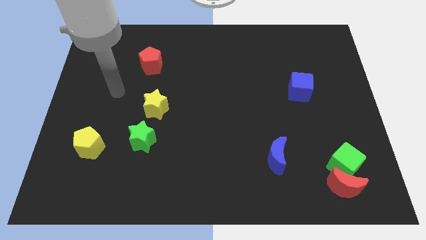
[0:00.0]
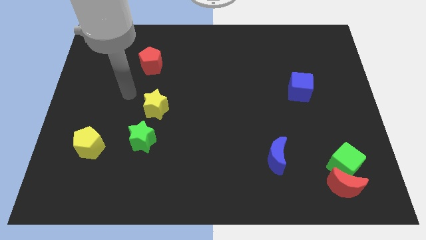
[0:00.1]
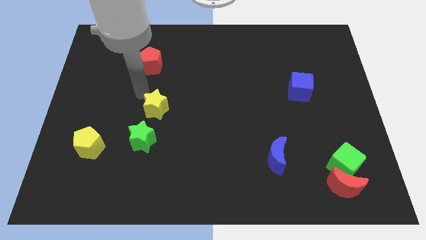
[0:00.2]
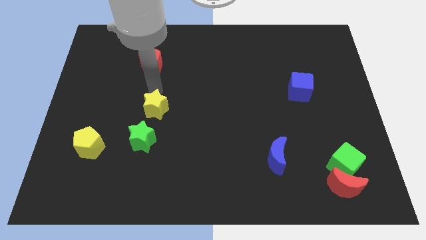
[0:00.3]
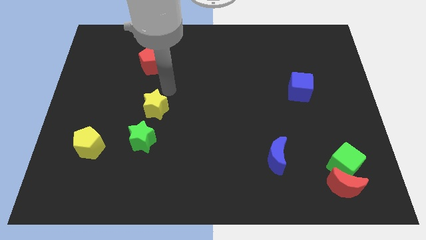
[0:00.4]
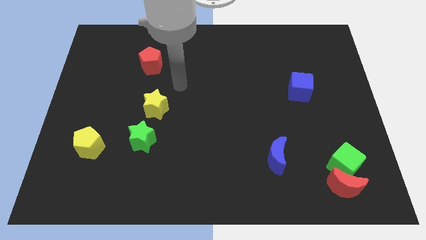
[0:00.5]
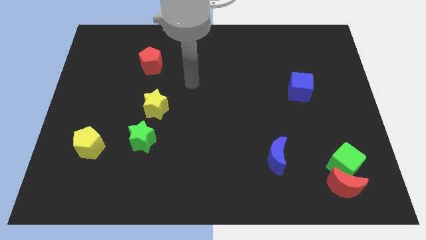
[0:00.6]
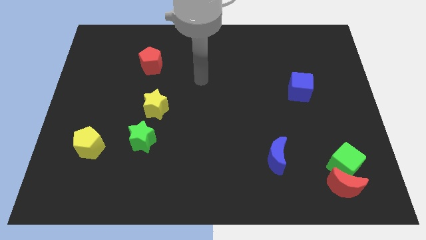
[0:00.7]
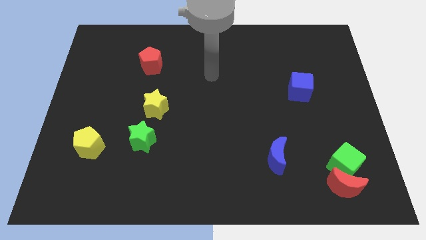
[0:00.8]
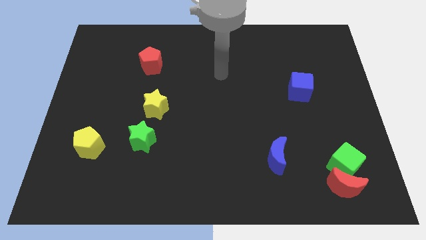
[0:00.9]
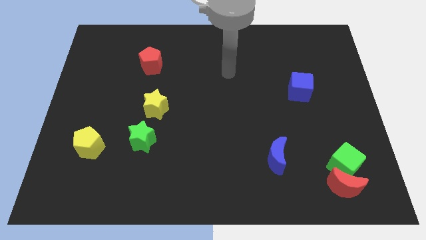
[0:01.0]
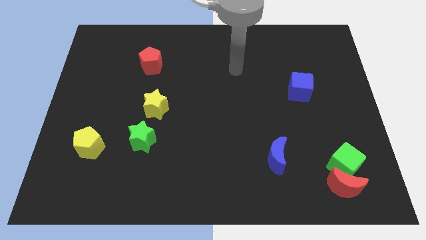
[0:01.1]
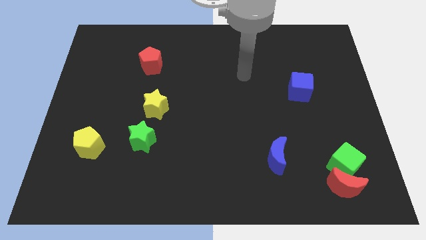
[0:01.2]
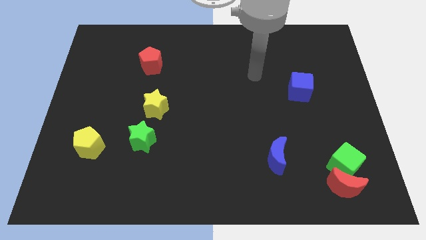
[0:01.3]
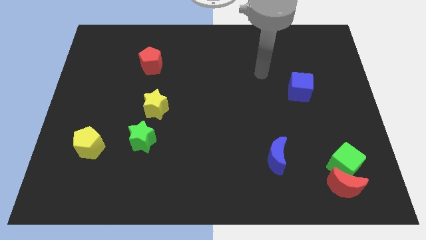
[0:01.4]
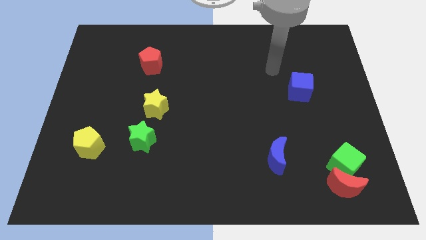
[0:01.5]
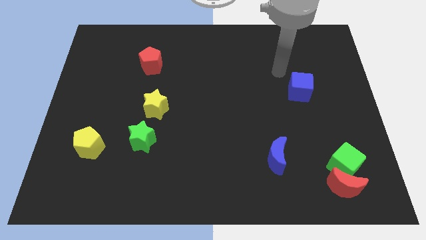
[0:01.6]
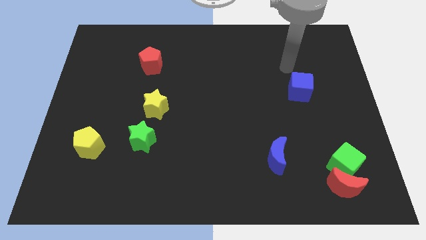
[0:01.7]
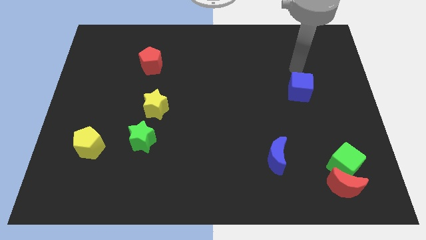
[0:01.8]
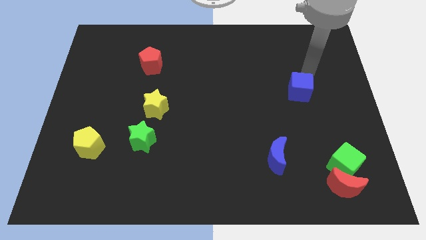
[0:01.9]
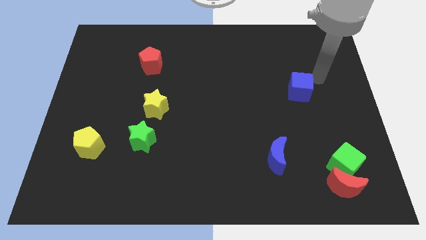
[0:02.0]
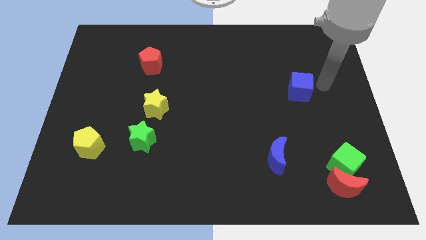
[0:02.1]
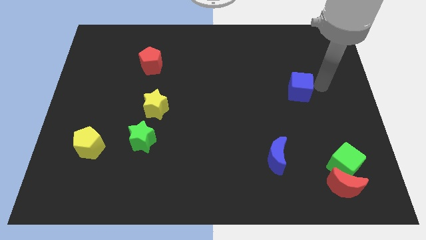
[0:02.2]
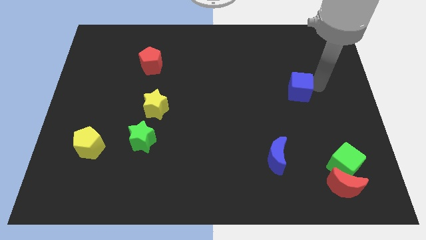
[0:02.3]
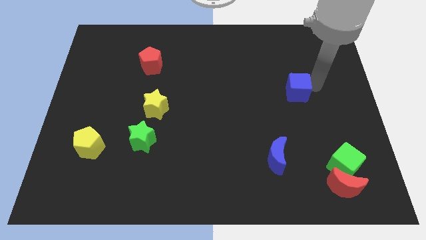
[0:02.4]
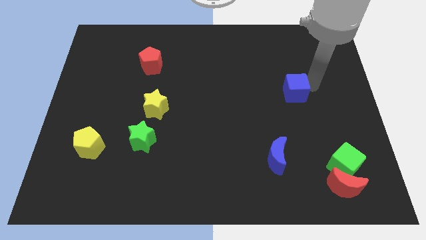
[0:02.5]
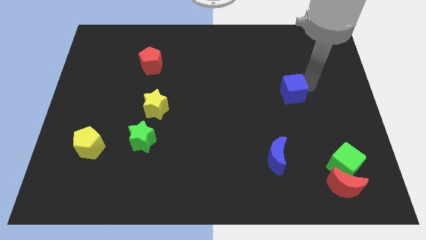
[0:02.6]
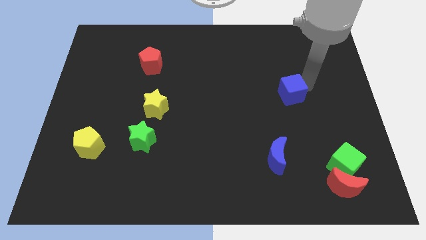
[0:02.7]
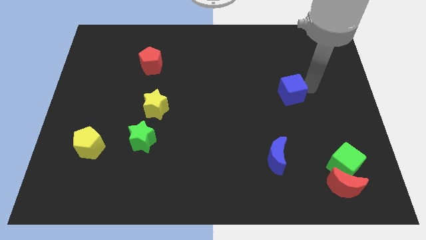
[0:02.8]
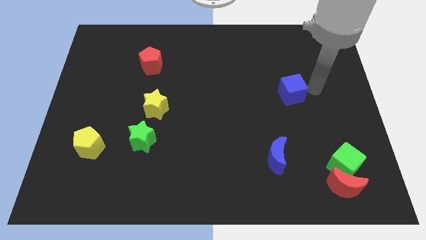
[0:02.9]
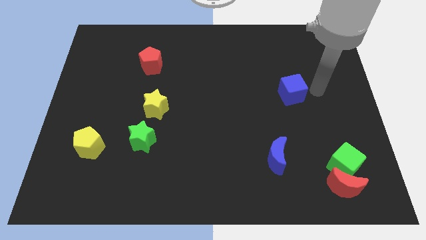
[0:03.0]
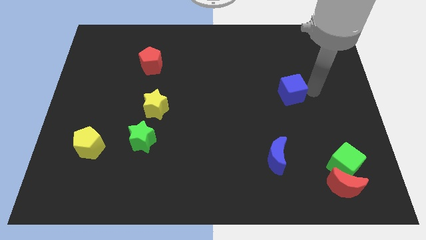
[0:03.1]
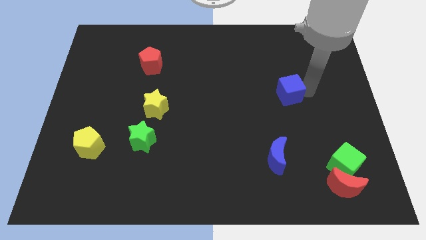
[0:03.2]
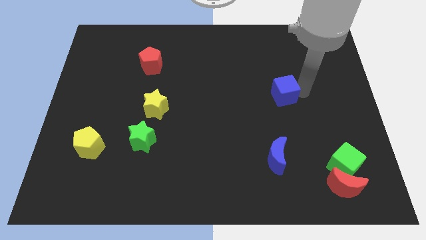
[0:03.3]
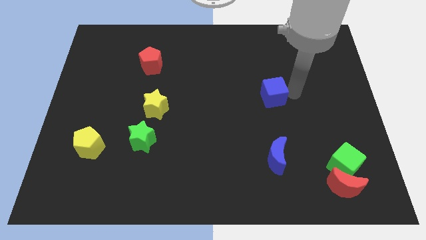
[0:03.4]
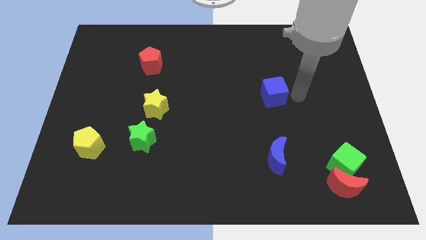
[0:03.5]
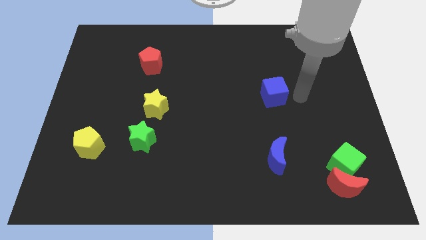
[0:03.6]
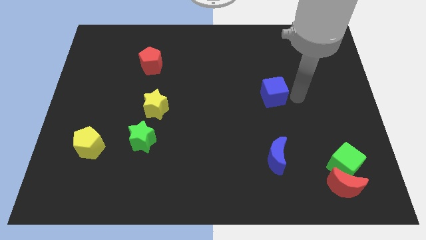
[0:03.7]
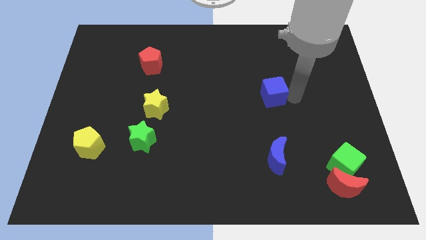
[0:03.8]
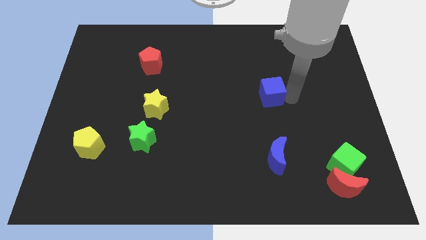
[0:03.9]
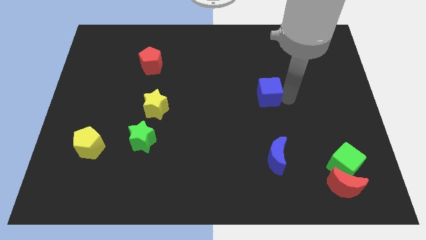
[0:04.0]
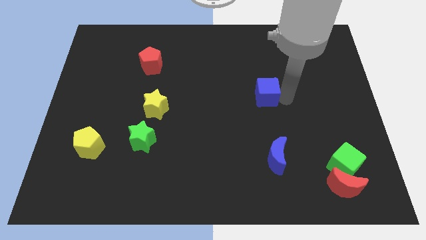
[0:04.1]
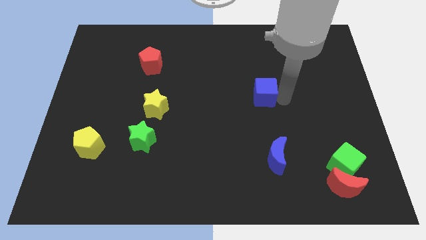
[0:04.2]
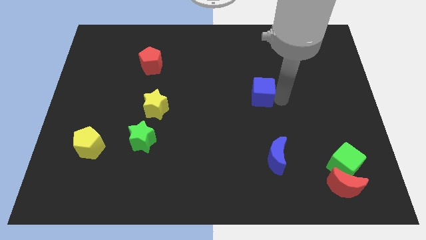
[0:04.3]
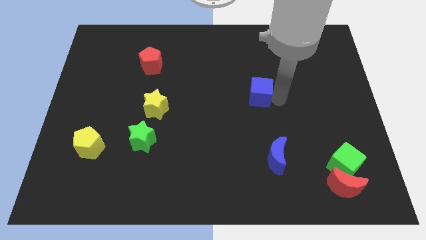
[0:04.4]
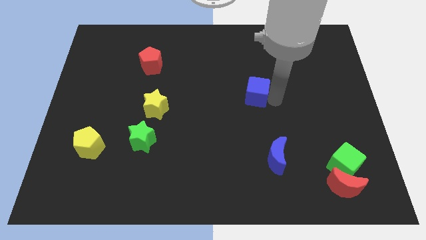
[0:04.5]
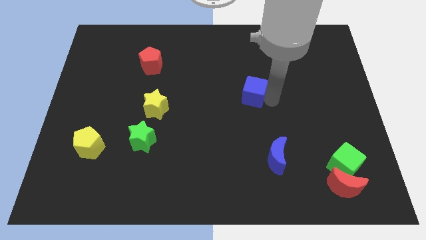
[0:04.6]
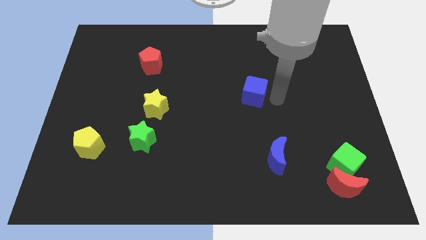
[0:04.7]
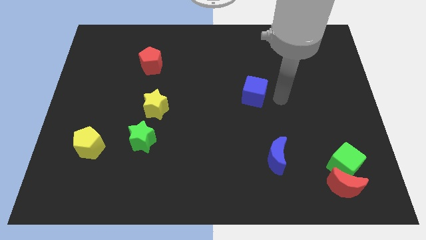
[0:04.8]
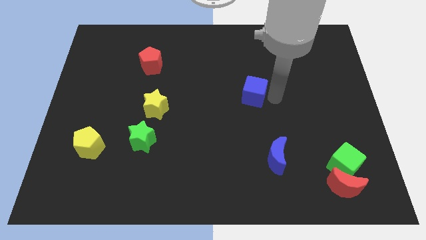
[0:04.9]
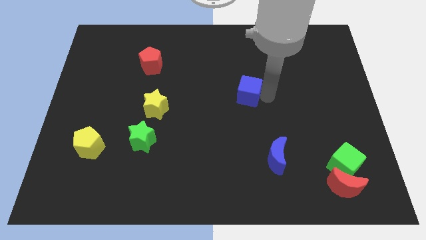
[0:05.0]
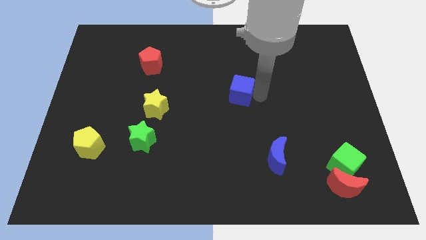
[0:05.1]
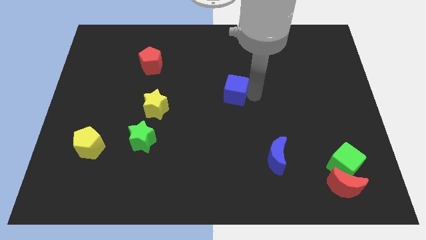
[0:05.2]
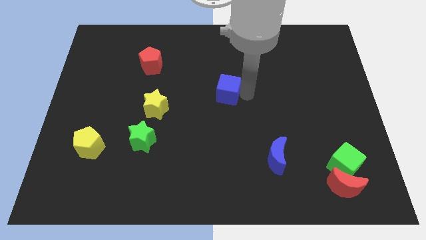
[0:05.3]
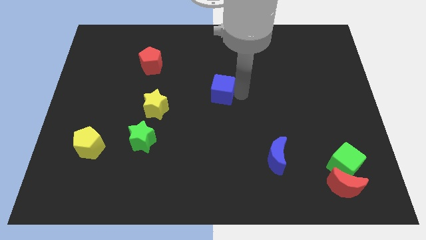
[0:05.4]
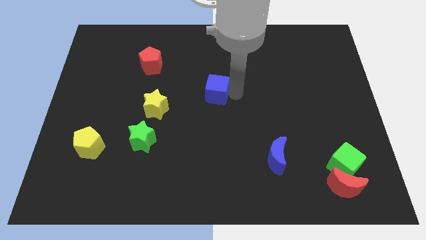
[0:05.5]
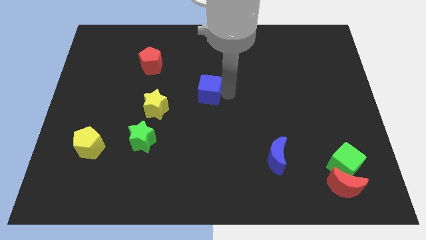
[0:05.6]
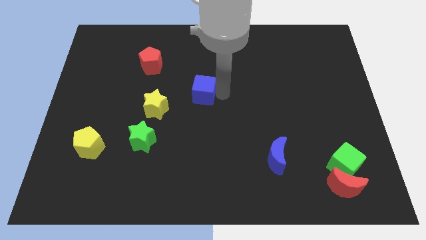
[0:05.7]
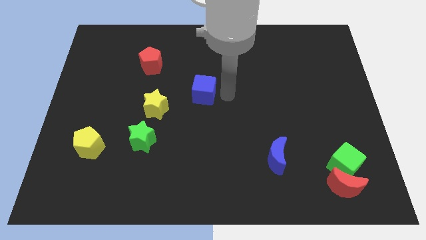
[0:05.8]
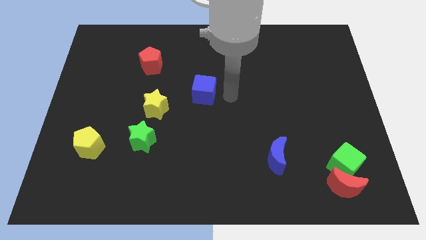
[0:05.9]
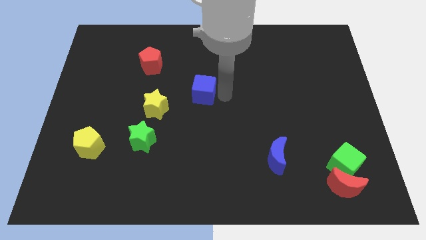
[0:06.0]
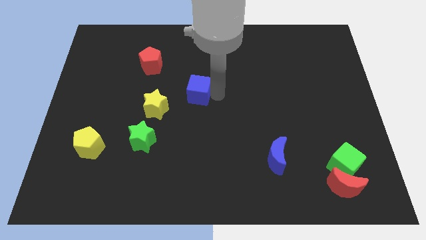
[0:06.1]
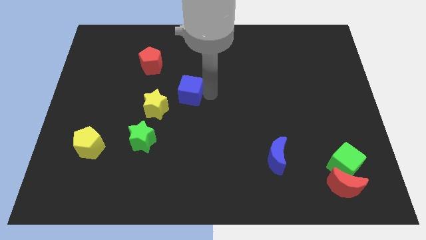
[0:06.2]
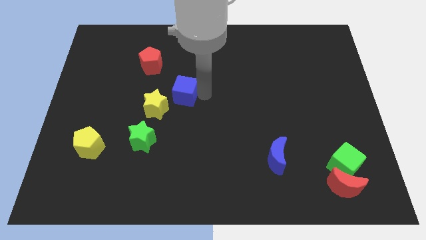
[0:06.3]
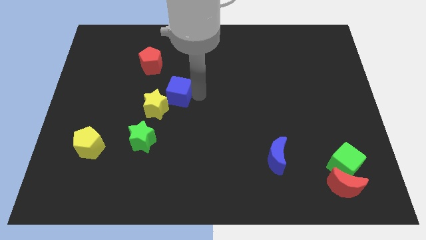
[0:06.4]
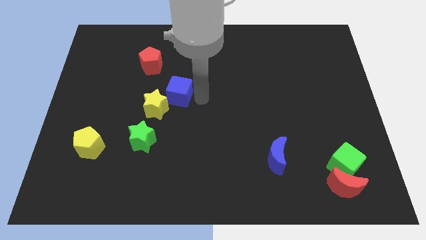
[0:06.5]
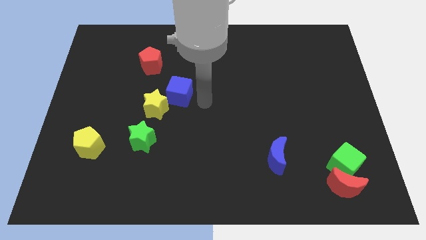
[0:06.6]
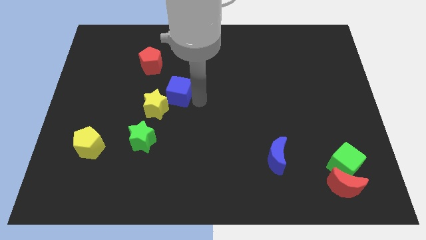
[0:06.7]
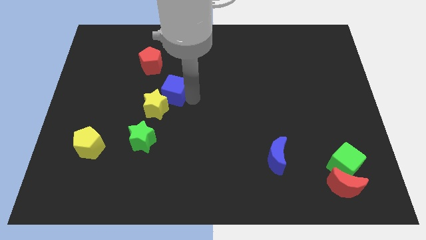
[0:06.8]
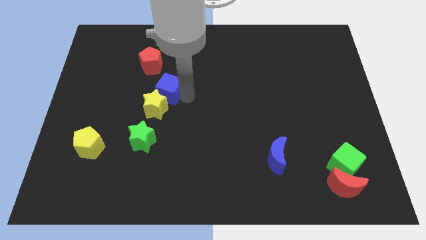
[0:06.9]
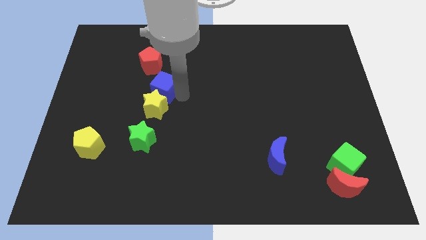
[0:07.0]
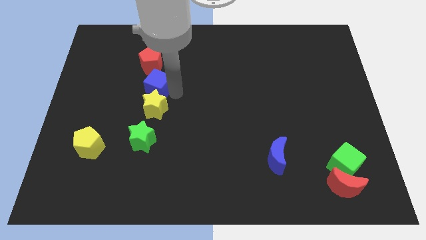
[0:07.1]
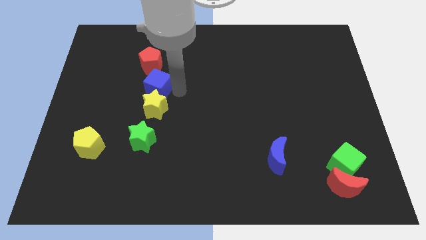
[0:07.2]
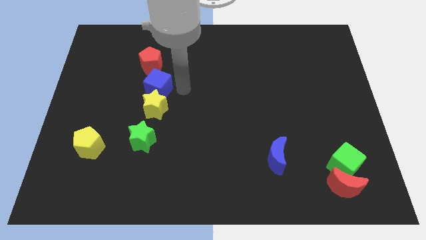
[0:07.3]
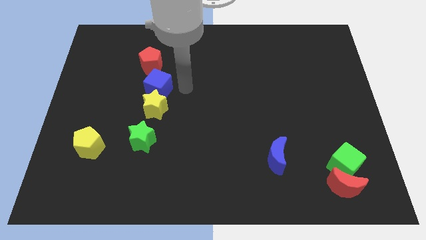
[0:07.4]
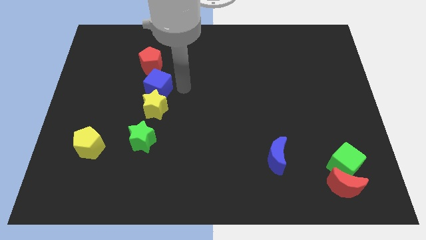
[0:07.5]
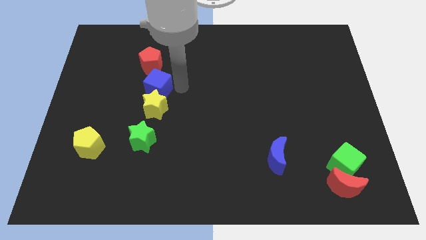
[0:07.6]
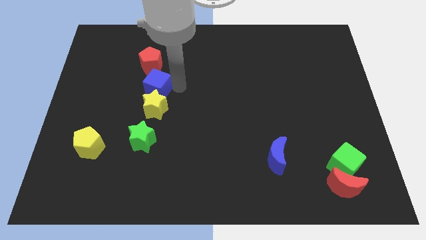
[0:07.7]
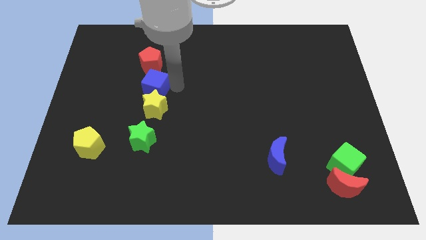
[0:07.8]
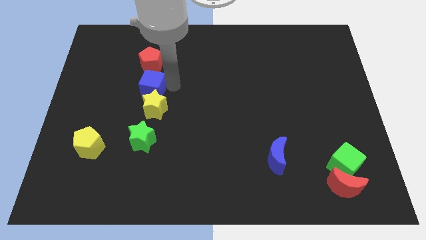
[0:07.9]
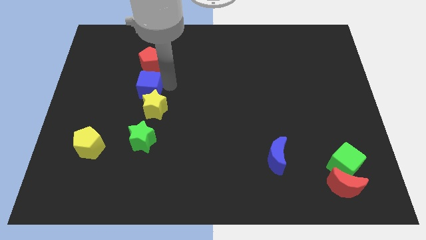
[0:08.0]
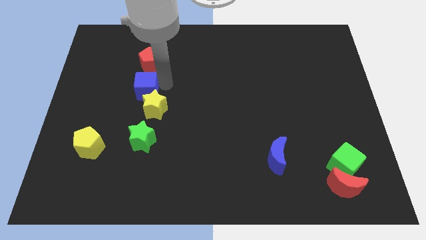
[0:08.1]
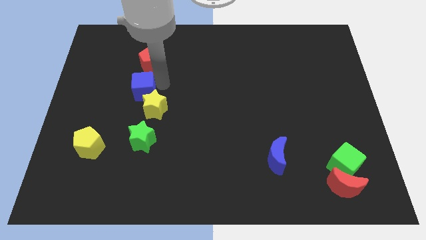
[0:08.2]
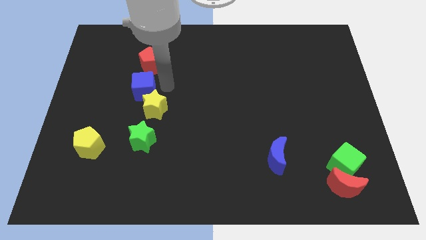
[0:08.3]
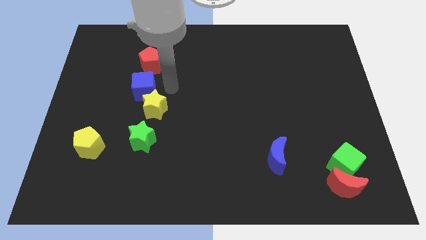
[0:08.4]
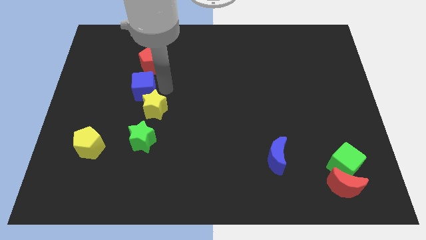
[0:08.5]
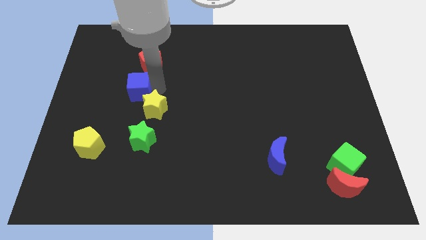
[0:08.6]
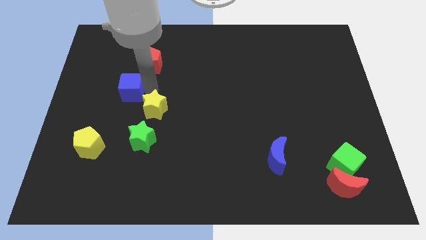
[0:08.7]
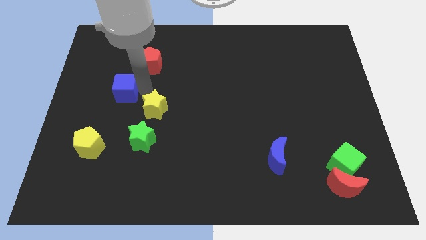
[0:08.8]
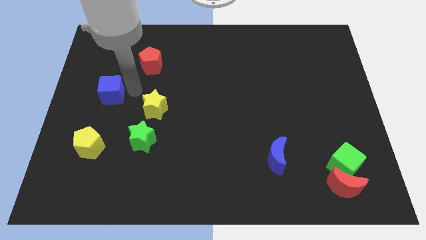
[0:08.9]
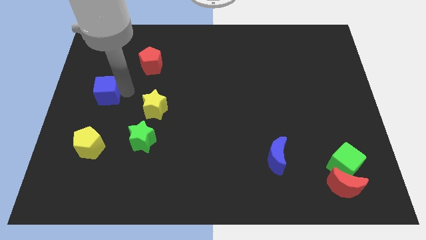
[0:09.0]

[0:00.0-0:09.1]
put the blue cube to the center left
